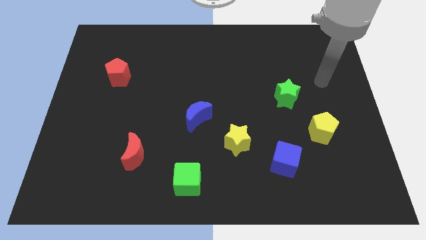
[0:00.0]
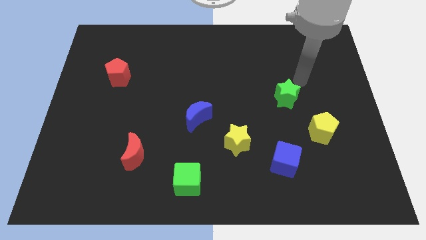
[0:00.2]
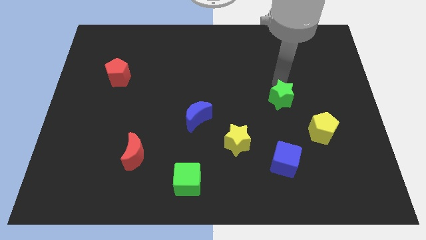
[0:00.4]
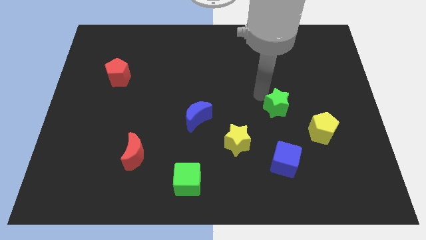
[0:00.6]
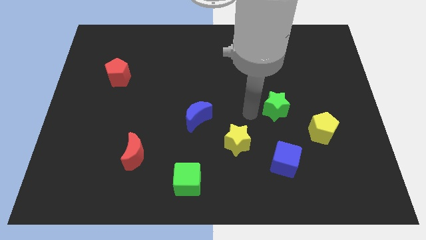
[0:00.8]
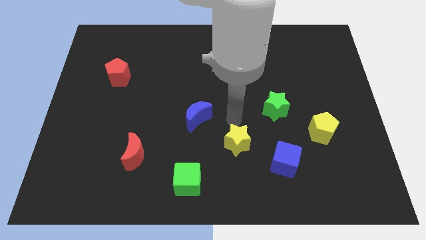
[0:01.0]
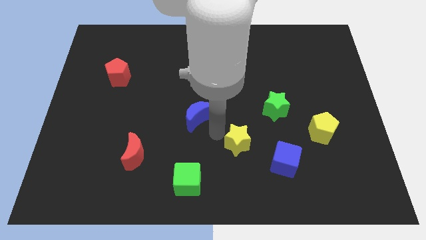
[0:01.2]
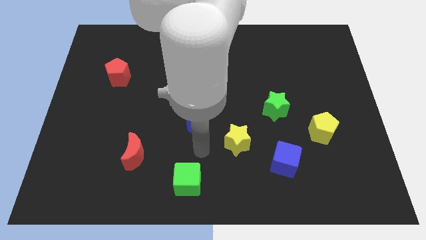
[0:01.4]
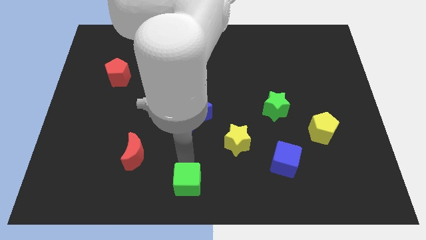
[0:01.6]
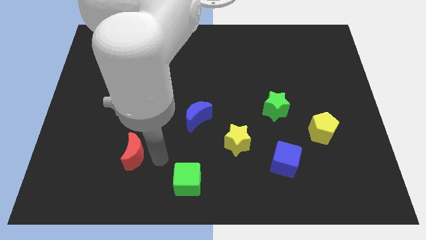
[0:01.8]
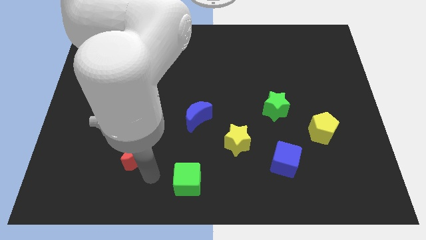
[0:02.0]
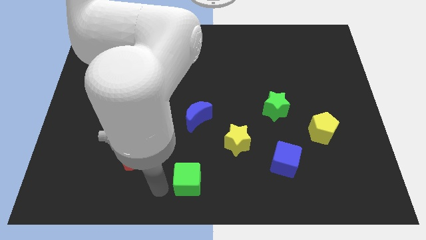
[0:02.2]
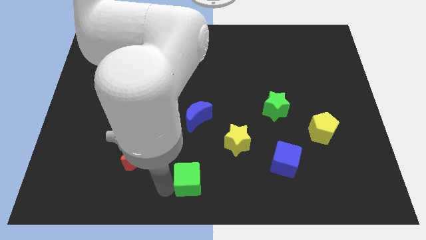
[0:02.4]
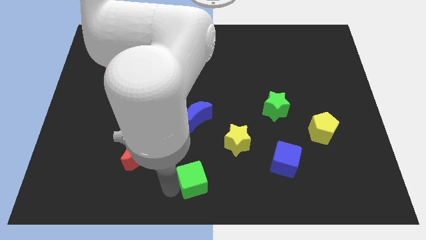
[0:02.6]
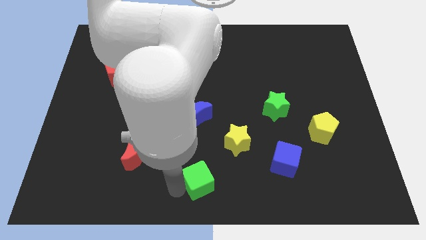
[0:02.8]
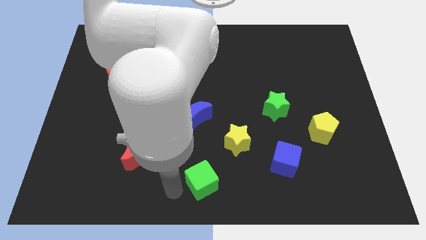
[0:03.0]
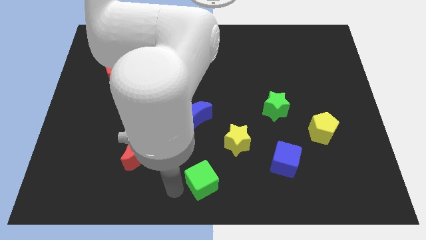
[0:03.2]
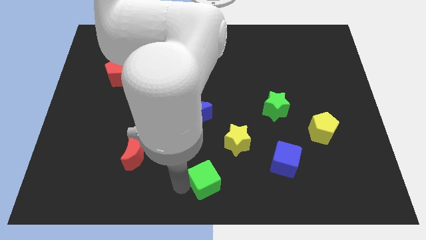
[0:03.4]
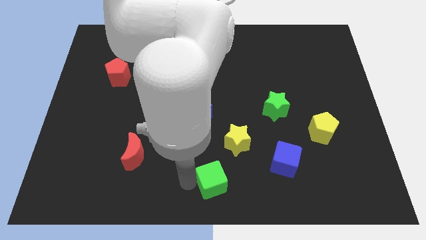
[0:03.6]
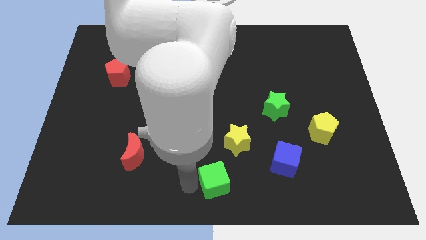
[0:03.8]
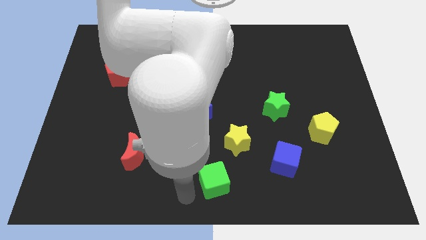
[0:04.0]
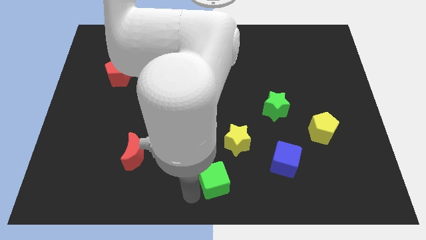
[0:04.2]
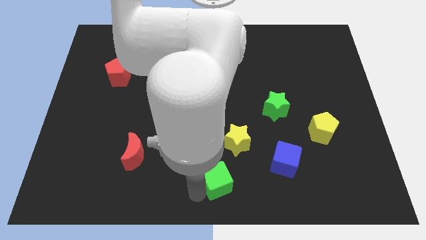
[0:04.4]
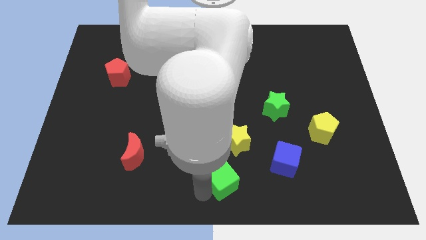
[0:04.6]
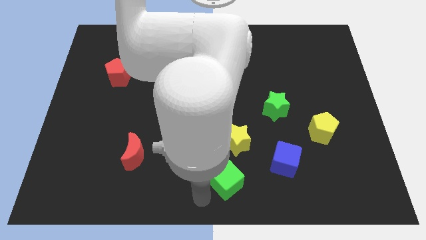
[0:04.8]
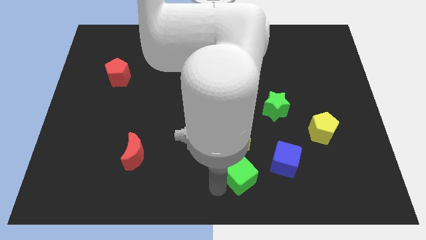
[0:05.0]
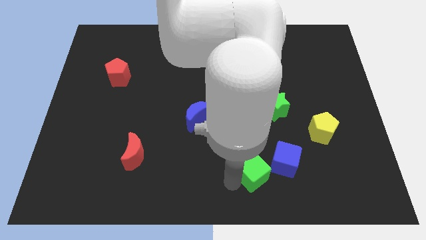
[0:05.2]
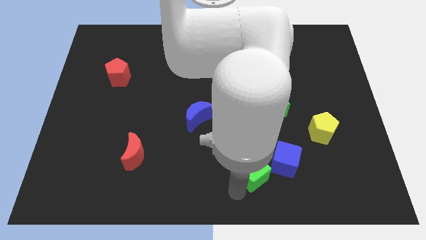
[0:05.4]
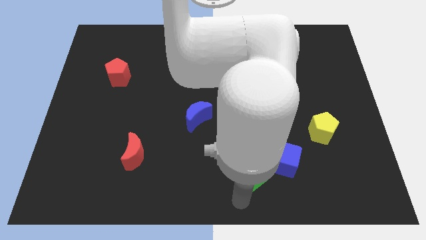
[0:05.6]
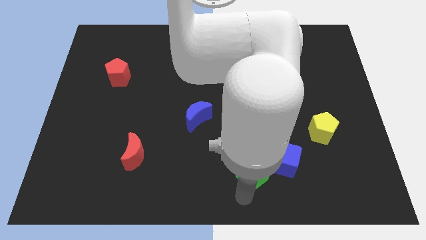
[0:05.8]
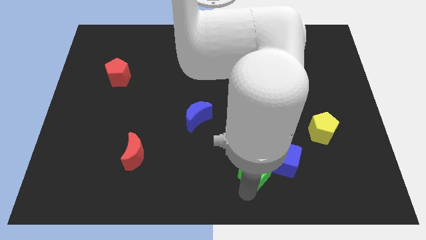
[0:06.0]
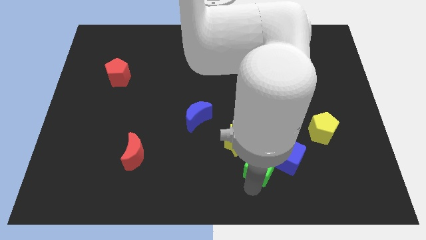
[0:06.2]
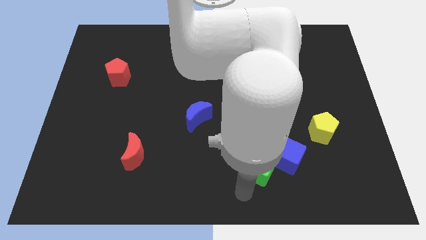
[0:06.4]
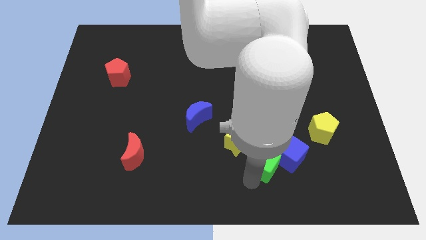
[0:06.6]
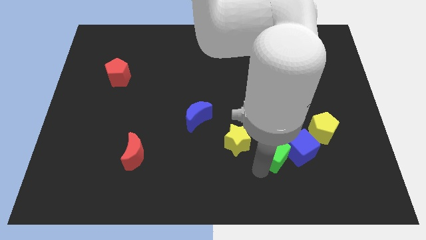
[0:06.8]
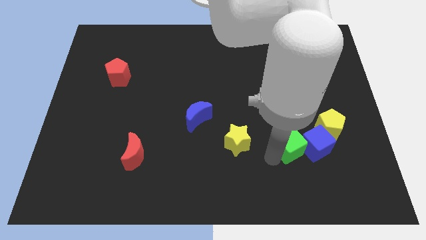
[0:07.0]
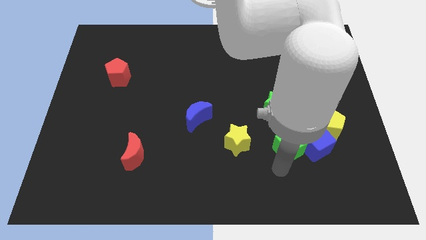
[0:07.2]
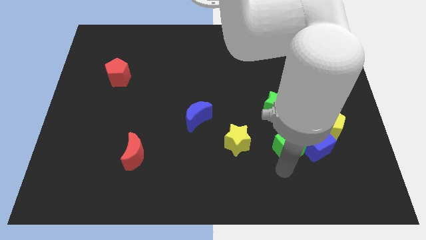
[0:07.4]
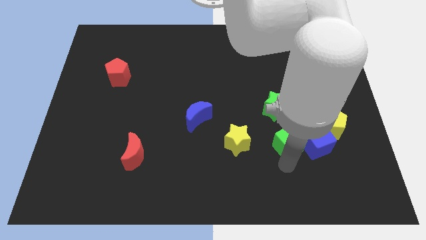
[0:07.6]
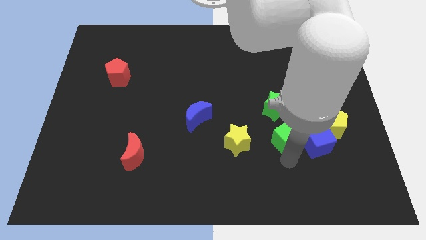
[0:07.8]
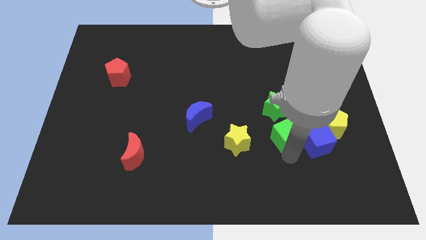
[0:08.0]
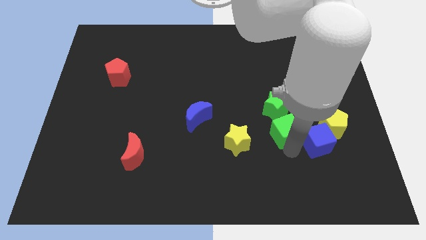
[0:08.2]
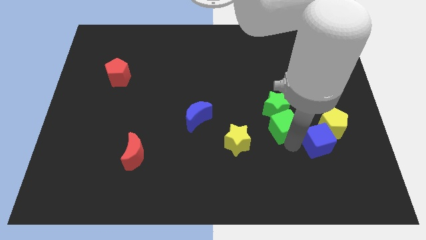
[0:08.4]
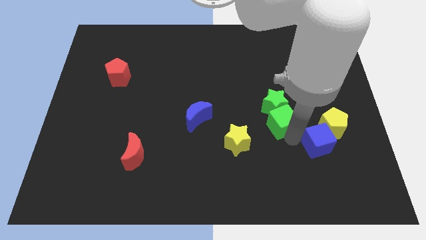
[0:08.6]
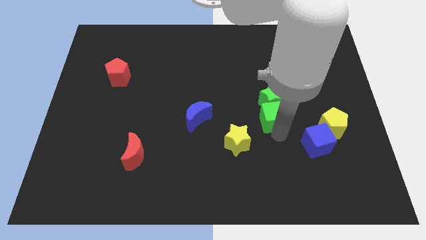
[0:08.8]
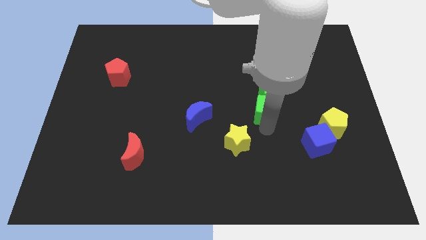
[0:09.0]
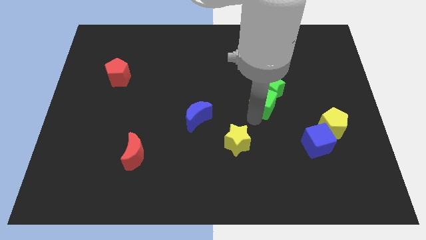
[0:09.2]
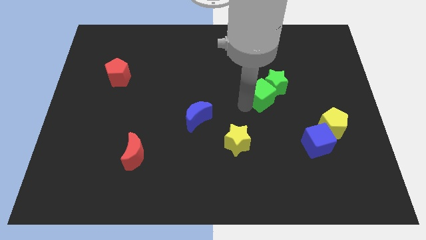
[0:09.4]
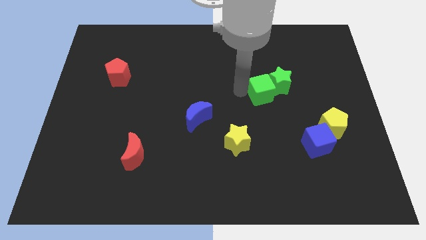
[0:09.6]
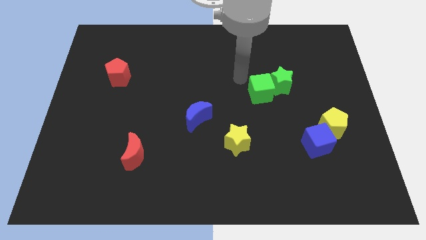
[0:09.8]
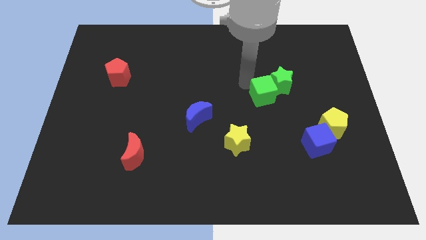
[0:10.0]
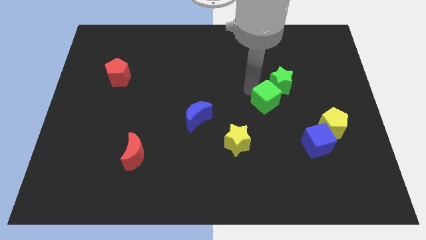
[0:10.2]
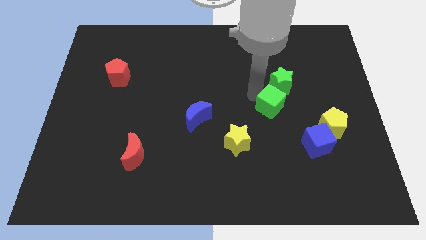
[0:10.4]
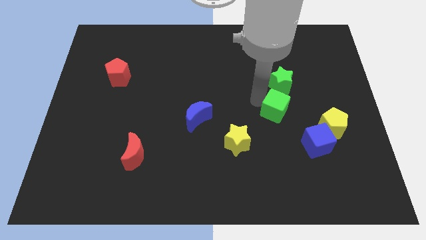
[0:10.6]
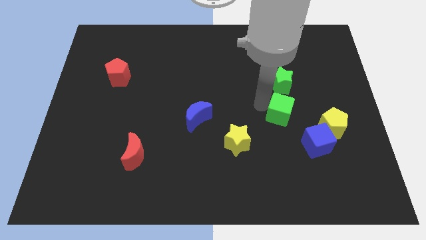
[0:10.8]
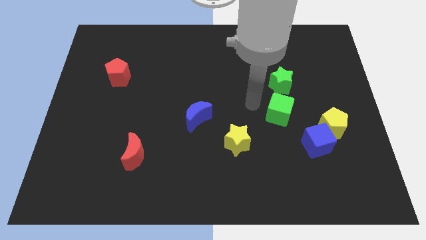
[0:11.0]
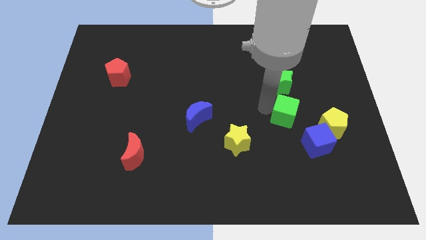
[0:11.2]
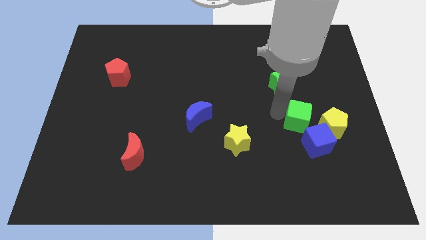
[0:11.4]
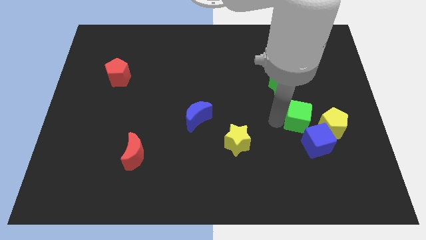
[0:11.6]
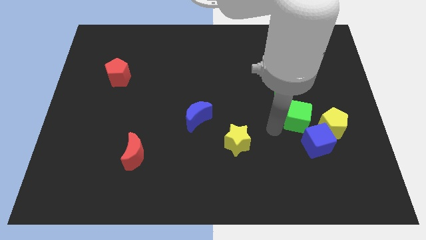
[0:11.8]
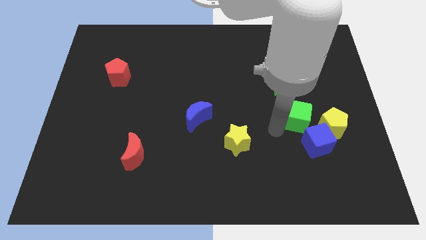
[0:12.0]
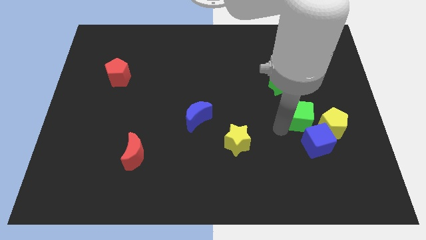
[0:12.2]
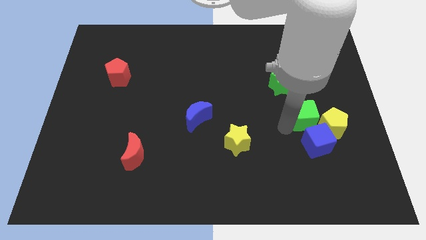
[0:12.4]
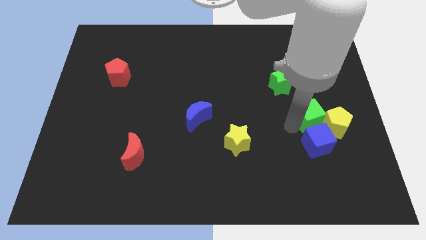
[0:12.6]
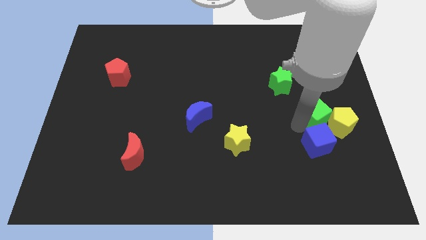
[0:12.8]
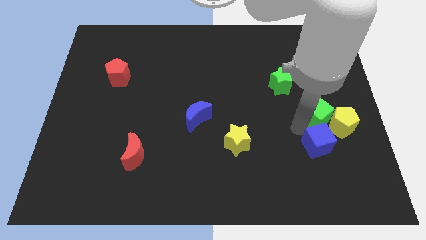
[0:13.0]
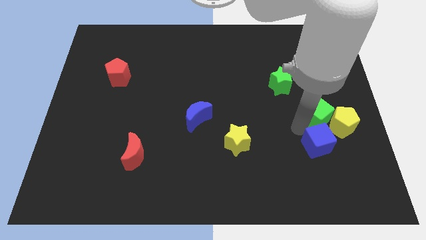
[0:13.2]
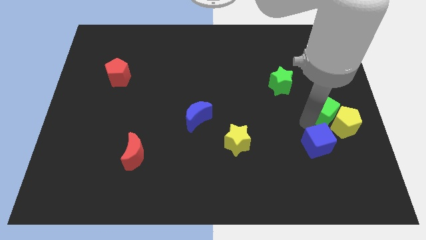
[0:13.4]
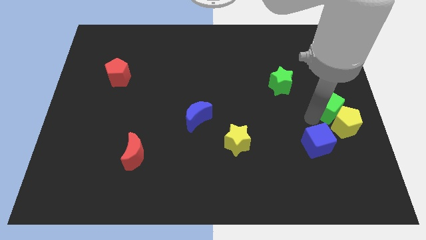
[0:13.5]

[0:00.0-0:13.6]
slide the green cube to the right side
